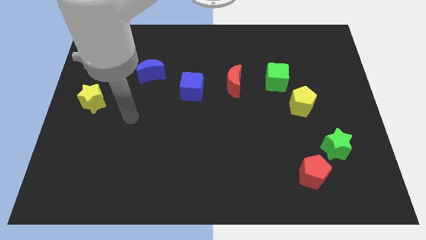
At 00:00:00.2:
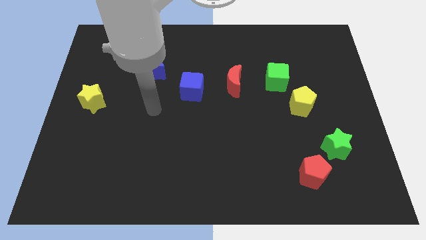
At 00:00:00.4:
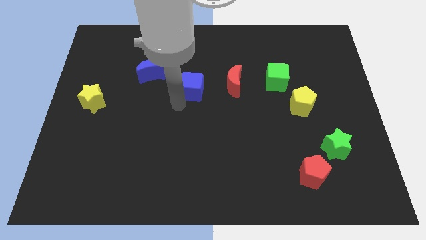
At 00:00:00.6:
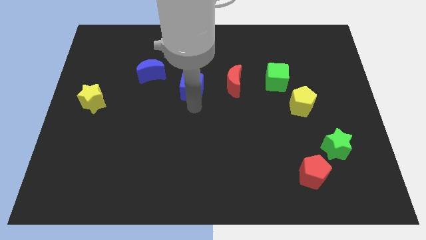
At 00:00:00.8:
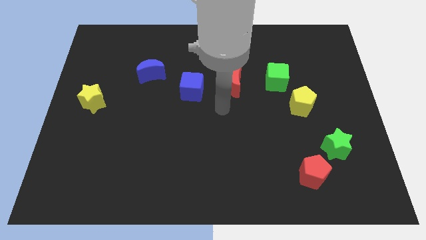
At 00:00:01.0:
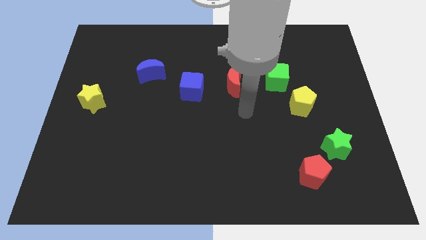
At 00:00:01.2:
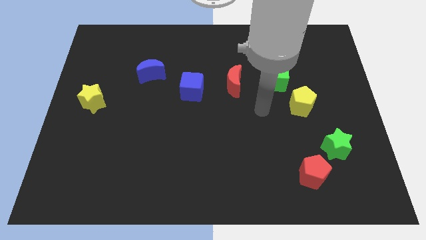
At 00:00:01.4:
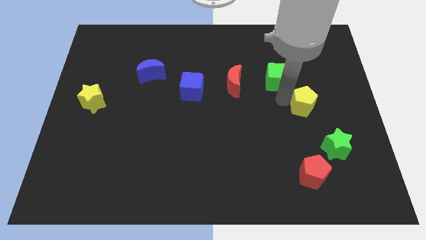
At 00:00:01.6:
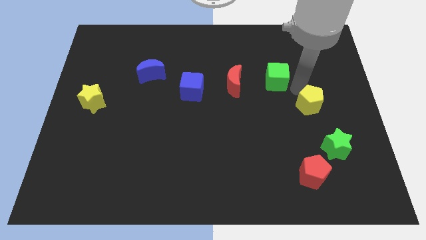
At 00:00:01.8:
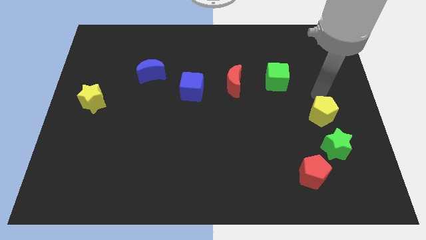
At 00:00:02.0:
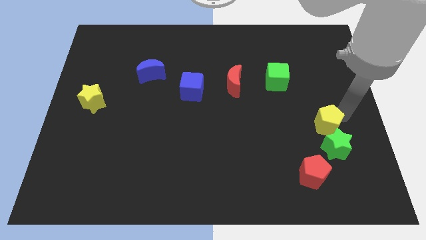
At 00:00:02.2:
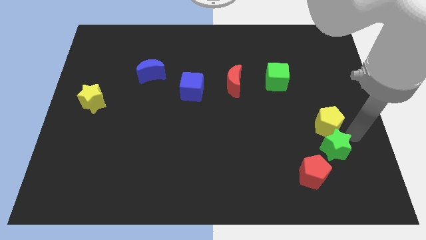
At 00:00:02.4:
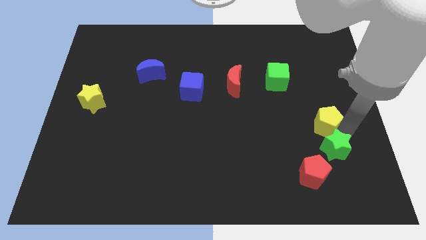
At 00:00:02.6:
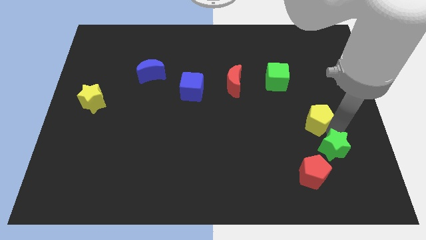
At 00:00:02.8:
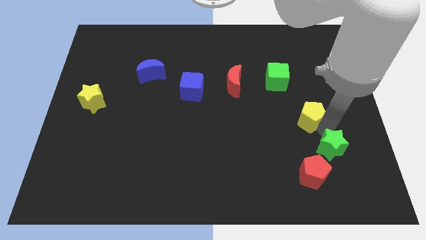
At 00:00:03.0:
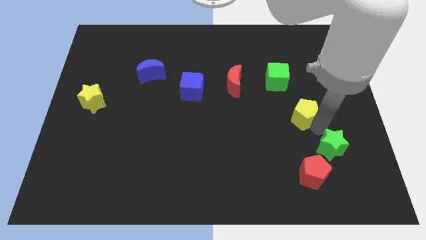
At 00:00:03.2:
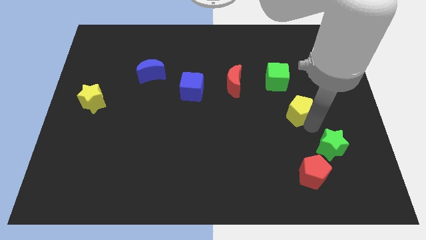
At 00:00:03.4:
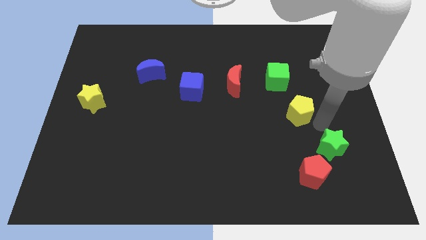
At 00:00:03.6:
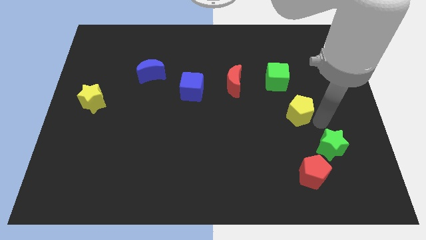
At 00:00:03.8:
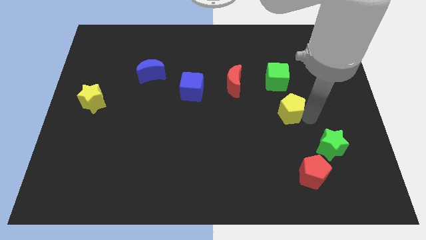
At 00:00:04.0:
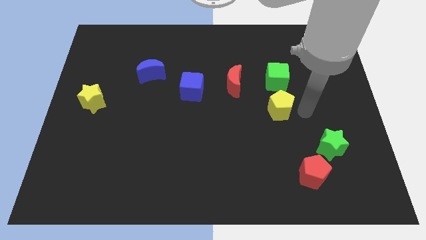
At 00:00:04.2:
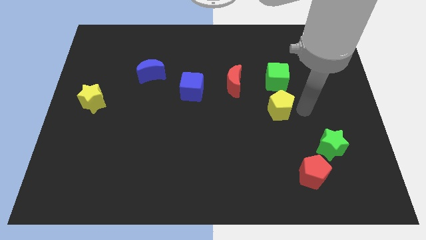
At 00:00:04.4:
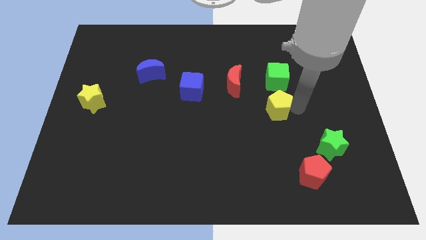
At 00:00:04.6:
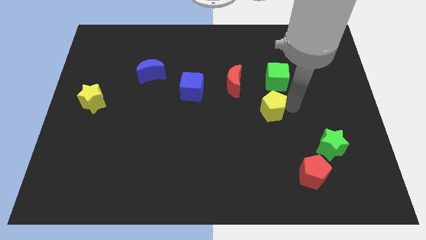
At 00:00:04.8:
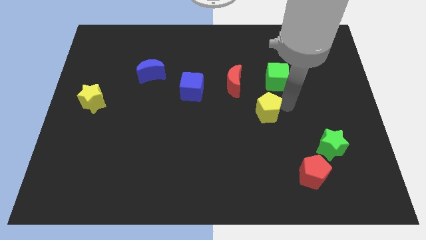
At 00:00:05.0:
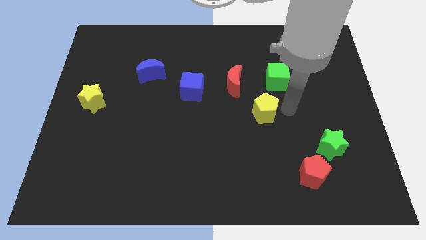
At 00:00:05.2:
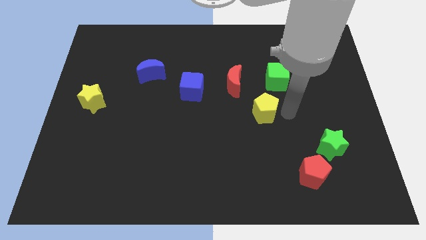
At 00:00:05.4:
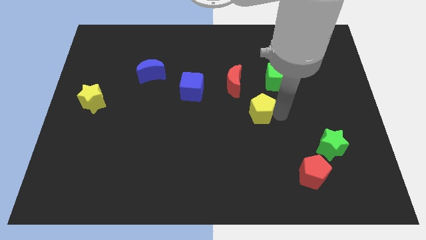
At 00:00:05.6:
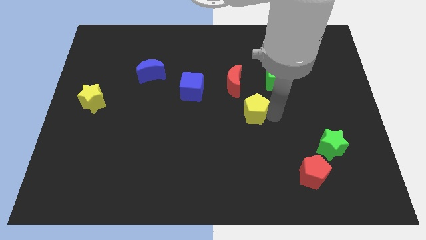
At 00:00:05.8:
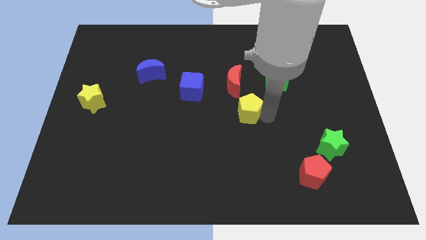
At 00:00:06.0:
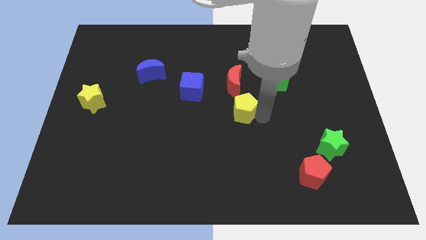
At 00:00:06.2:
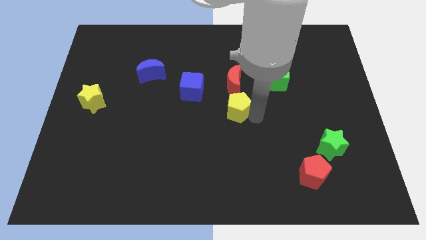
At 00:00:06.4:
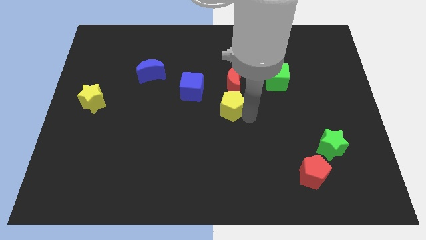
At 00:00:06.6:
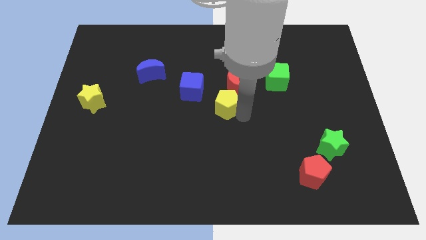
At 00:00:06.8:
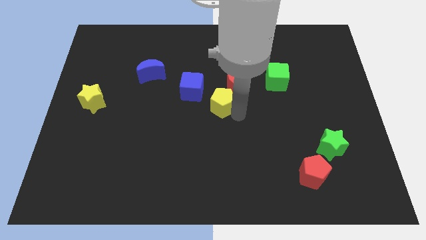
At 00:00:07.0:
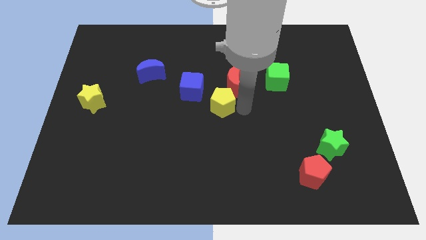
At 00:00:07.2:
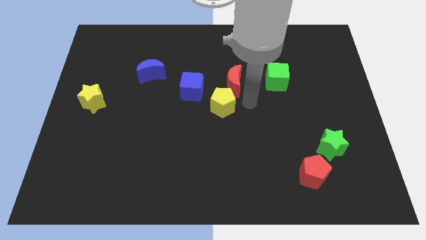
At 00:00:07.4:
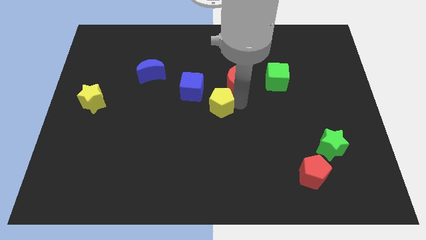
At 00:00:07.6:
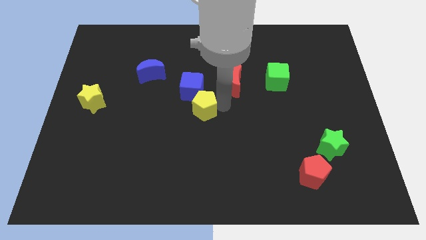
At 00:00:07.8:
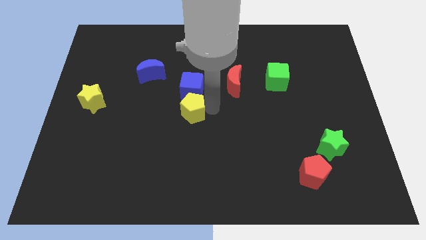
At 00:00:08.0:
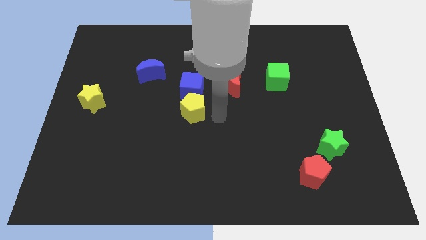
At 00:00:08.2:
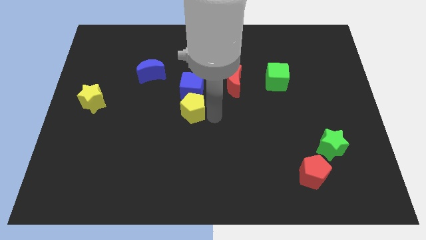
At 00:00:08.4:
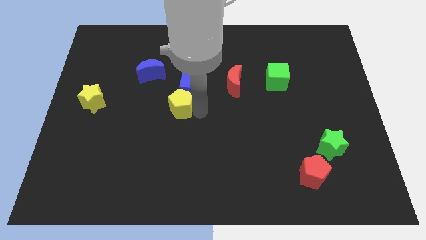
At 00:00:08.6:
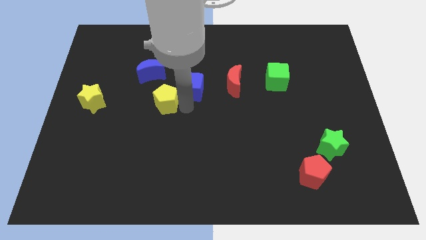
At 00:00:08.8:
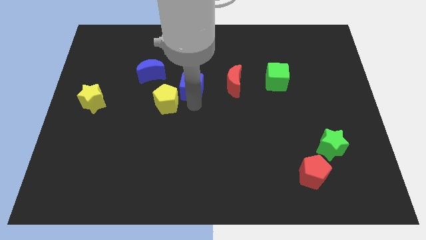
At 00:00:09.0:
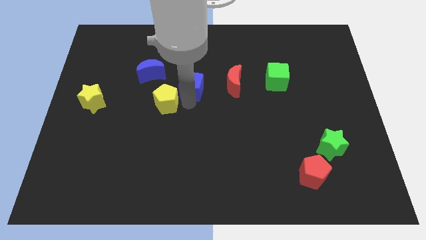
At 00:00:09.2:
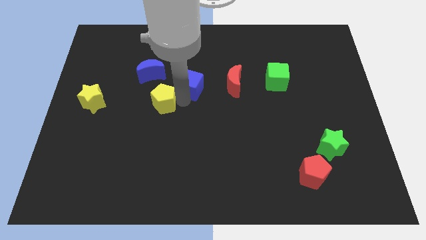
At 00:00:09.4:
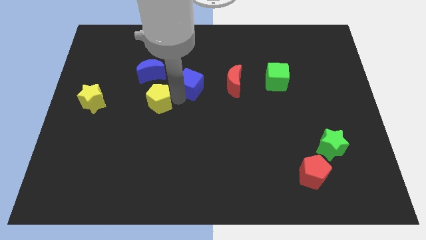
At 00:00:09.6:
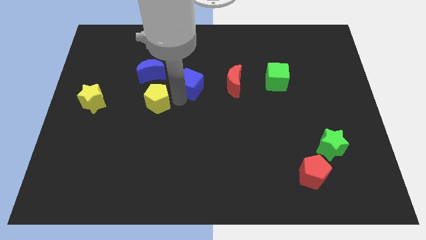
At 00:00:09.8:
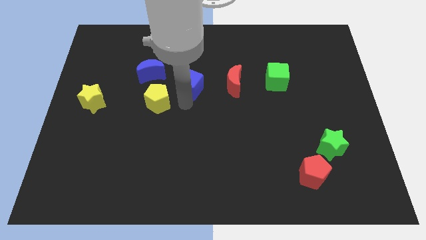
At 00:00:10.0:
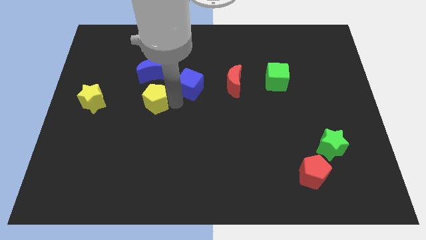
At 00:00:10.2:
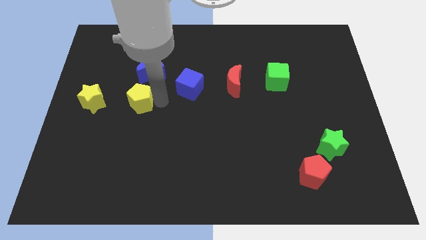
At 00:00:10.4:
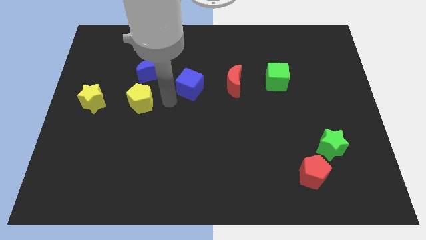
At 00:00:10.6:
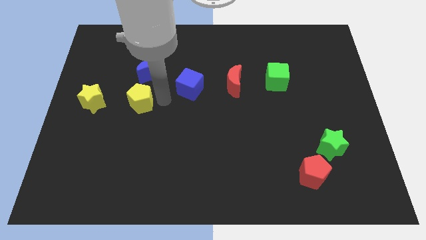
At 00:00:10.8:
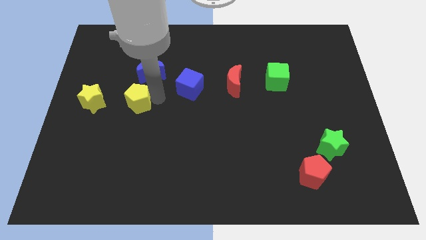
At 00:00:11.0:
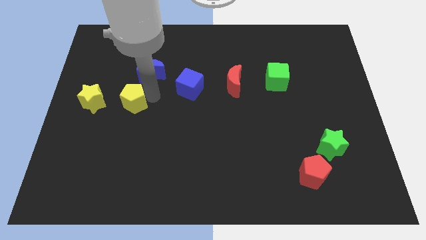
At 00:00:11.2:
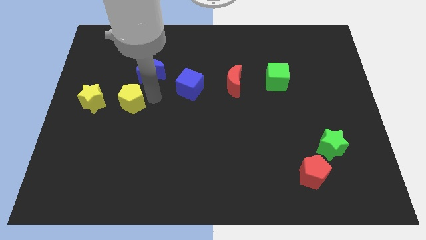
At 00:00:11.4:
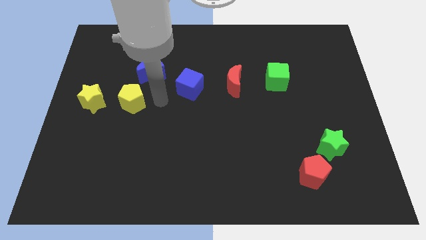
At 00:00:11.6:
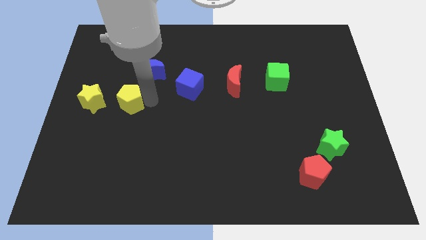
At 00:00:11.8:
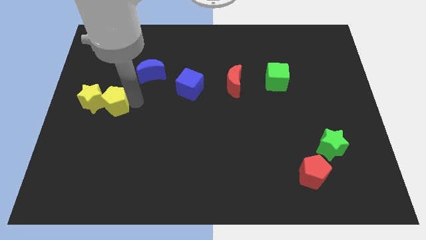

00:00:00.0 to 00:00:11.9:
push the yellow pentagon towards the yellow star
